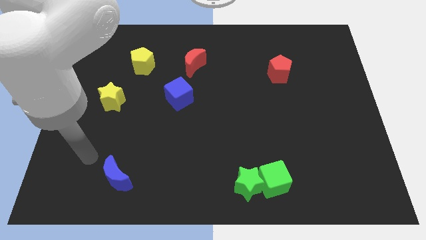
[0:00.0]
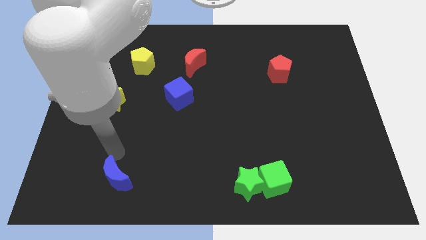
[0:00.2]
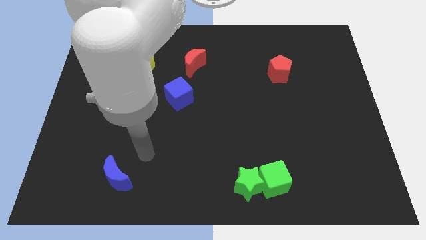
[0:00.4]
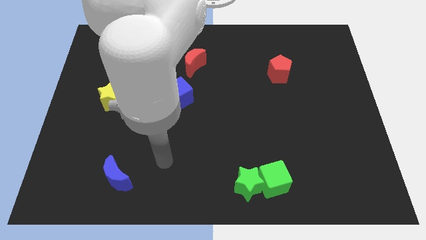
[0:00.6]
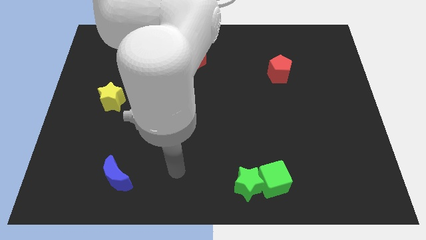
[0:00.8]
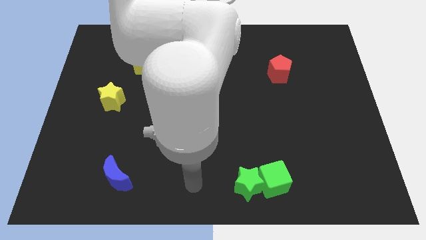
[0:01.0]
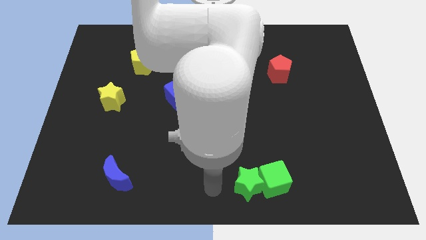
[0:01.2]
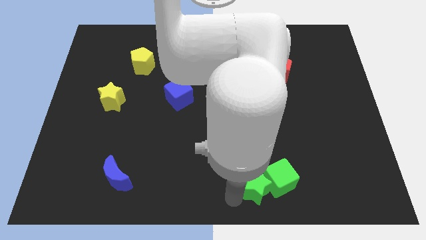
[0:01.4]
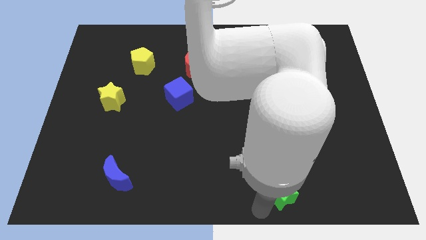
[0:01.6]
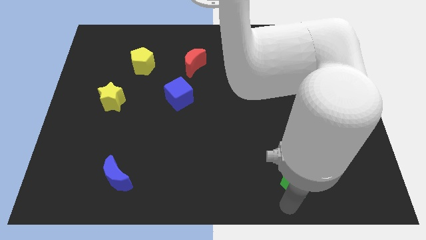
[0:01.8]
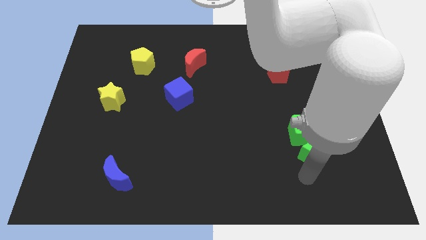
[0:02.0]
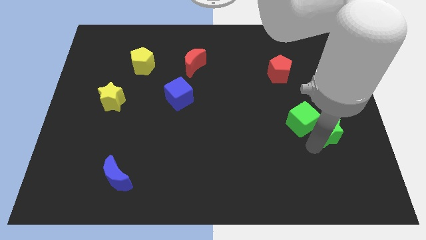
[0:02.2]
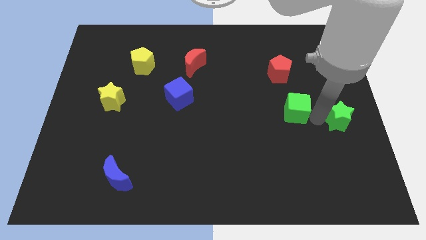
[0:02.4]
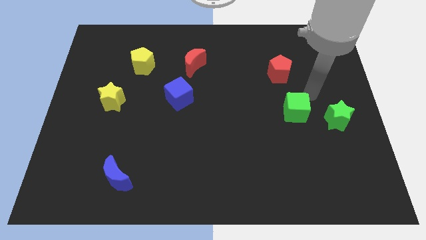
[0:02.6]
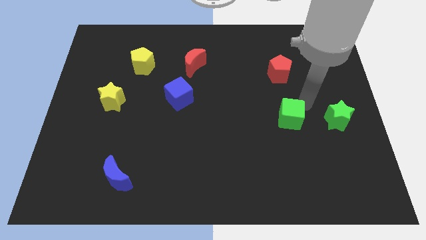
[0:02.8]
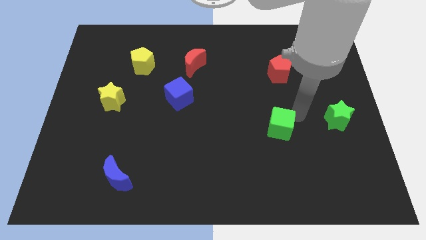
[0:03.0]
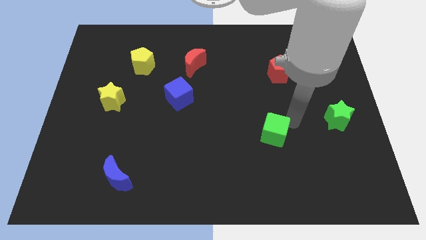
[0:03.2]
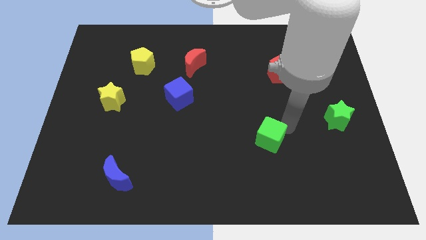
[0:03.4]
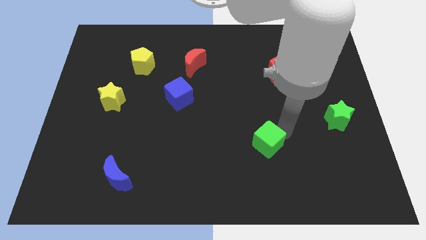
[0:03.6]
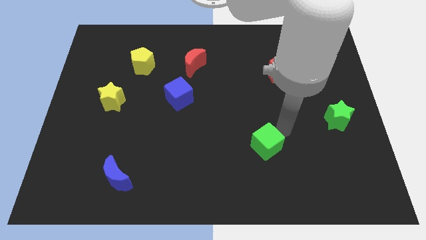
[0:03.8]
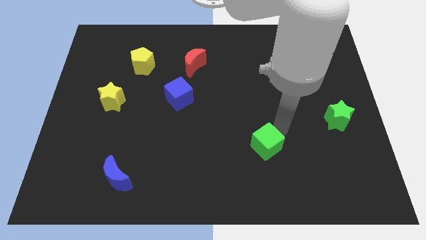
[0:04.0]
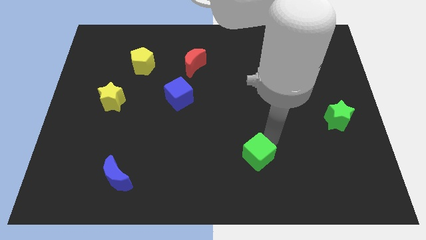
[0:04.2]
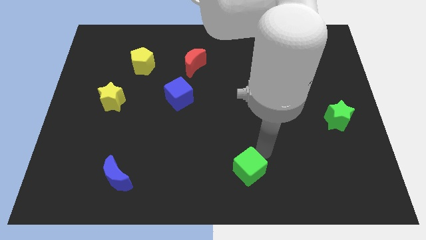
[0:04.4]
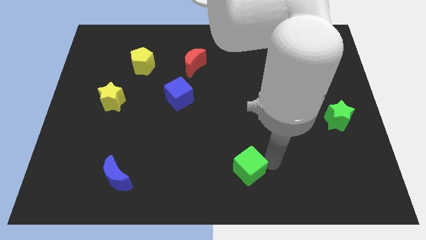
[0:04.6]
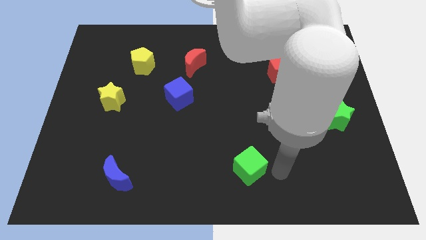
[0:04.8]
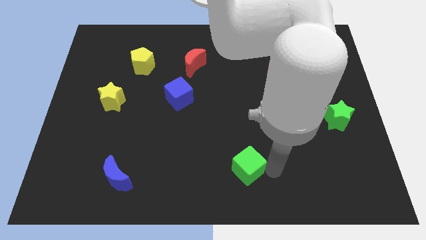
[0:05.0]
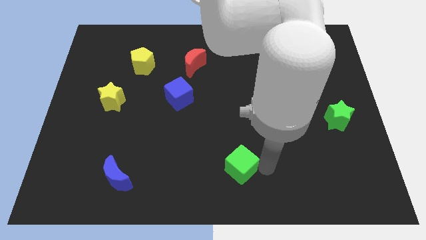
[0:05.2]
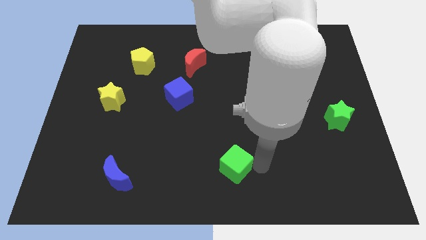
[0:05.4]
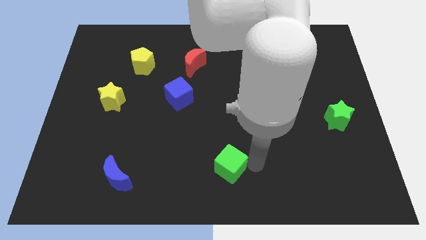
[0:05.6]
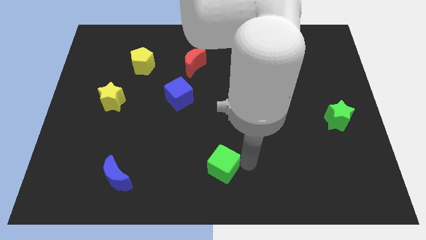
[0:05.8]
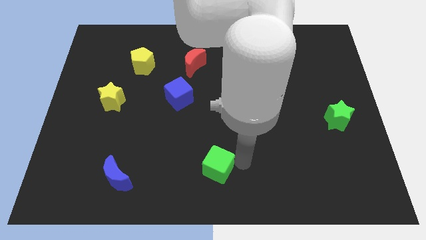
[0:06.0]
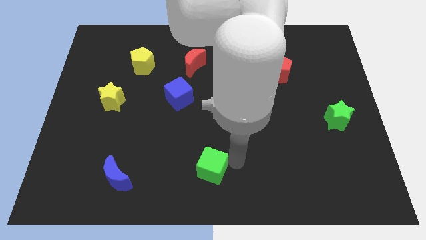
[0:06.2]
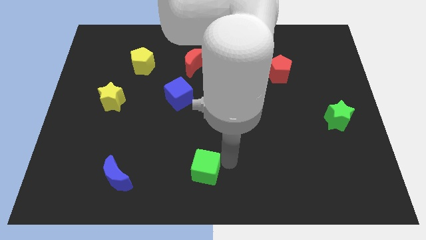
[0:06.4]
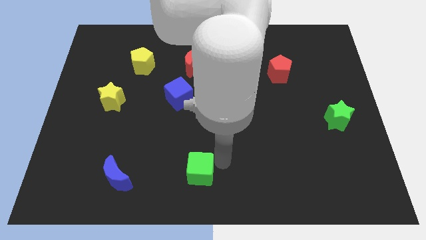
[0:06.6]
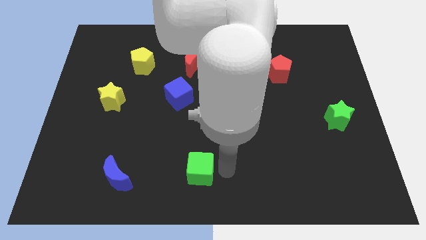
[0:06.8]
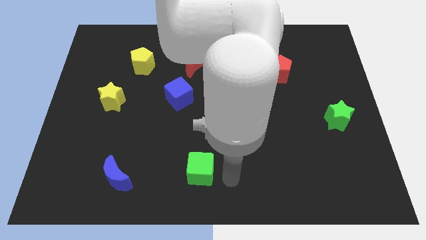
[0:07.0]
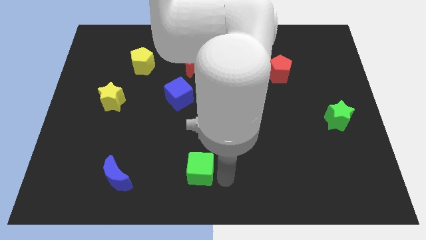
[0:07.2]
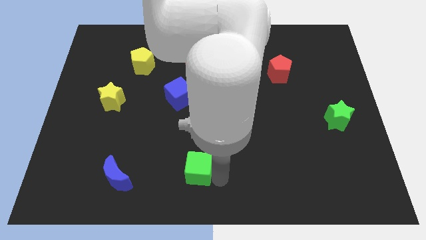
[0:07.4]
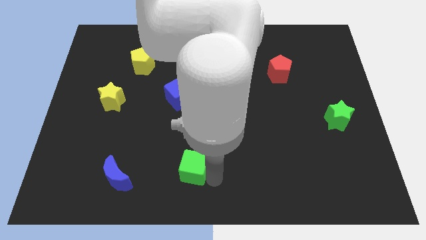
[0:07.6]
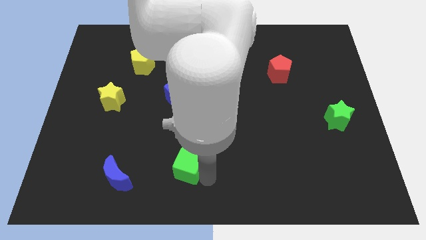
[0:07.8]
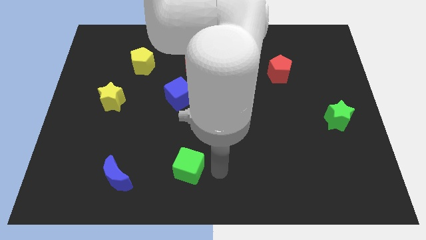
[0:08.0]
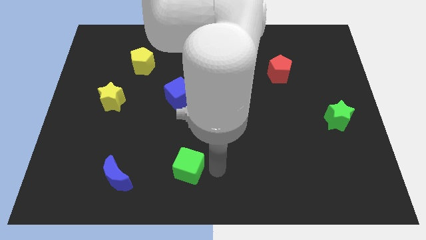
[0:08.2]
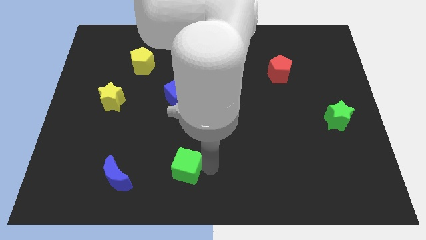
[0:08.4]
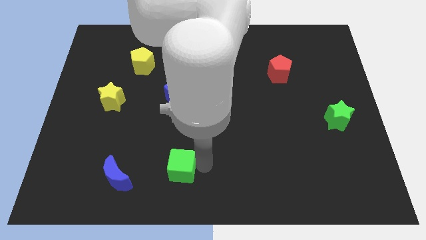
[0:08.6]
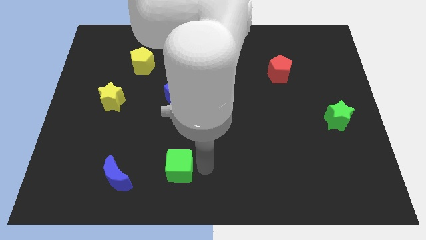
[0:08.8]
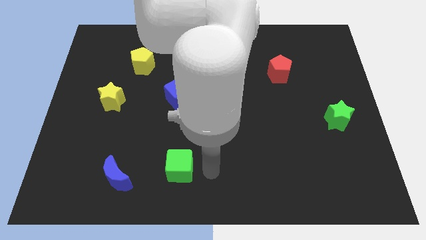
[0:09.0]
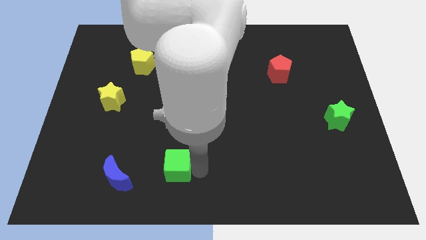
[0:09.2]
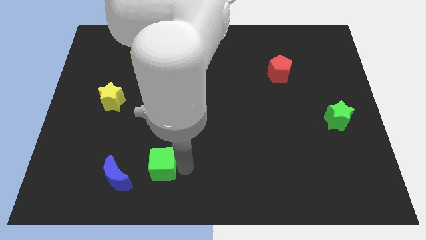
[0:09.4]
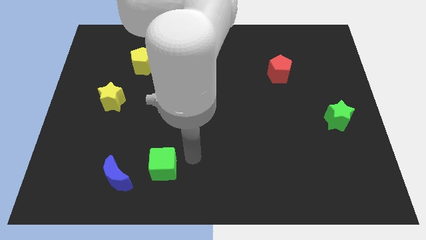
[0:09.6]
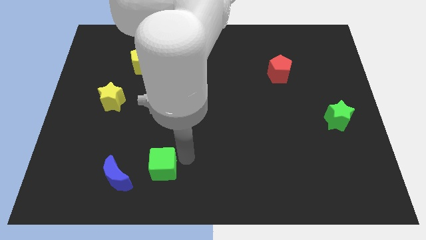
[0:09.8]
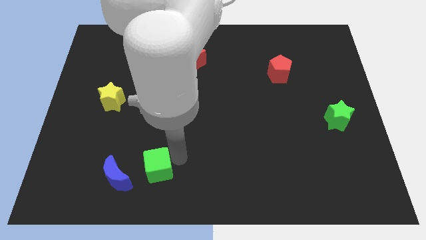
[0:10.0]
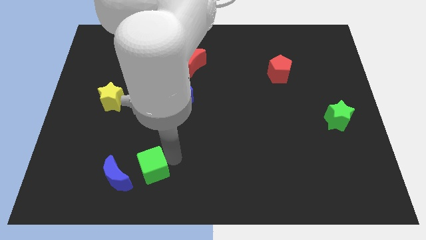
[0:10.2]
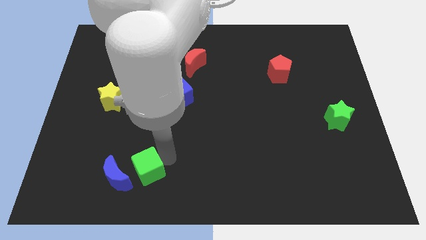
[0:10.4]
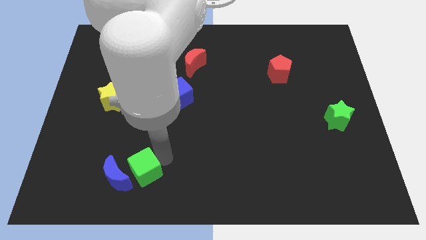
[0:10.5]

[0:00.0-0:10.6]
slide the green cube towards the blue moon

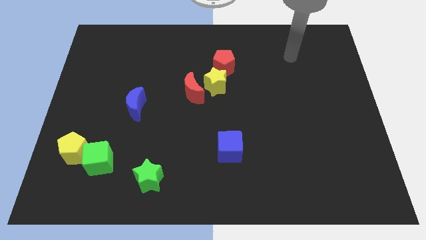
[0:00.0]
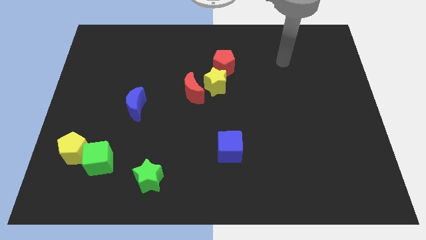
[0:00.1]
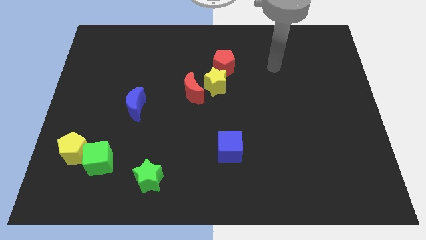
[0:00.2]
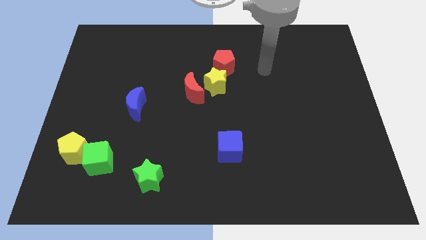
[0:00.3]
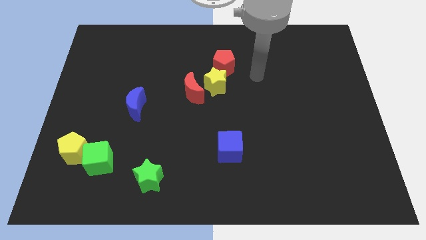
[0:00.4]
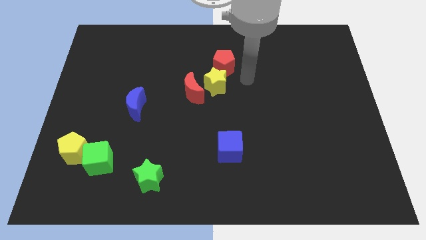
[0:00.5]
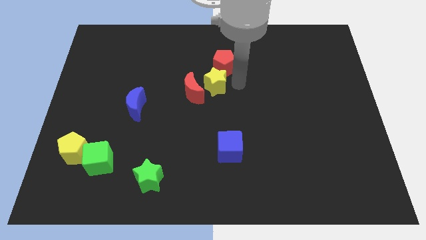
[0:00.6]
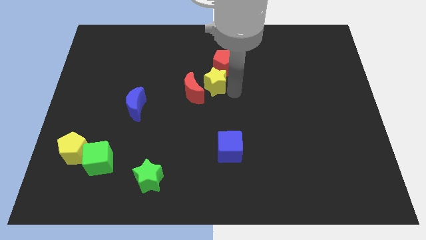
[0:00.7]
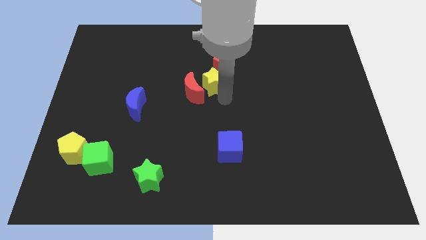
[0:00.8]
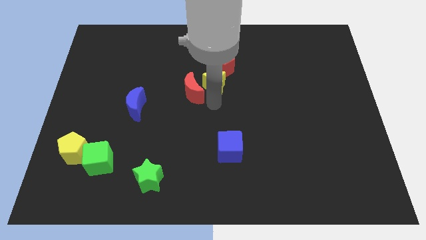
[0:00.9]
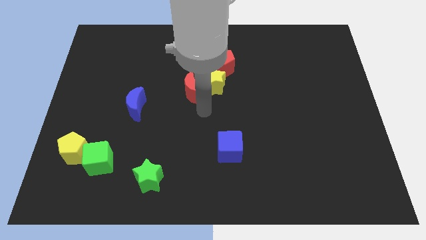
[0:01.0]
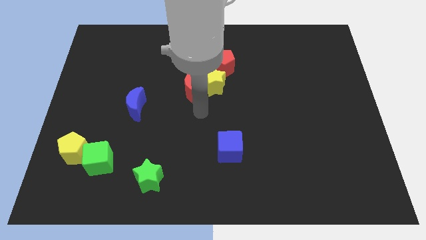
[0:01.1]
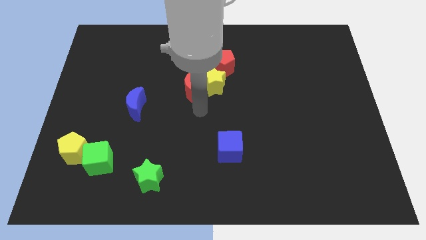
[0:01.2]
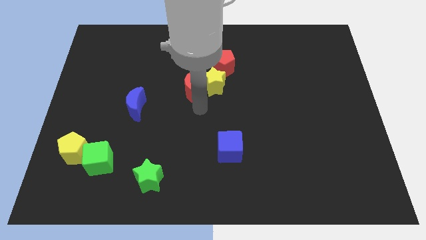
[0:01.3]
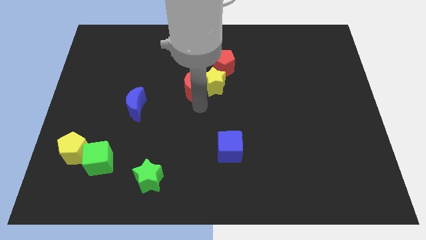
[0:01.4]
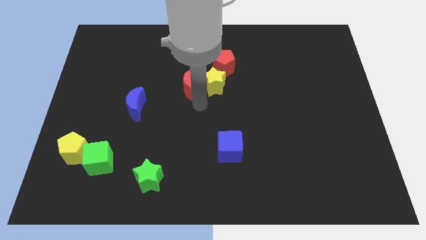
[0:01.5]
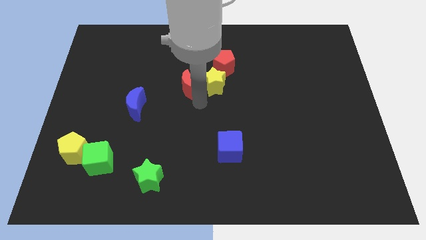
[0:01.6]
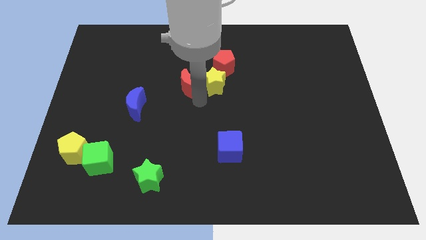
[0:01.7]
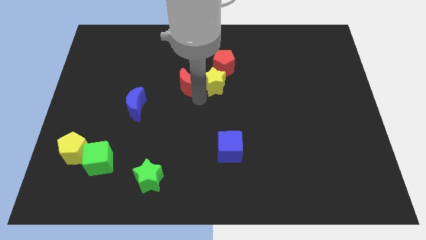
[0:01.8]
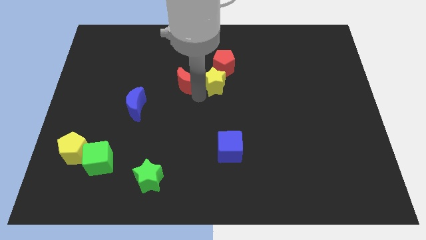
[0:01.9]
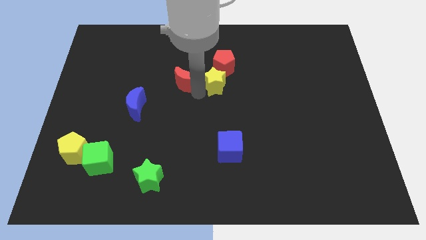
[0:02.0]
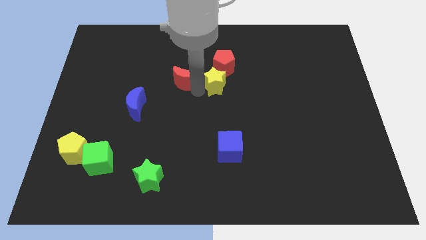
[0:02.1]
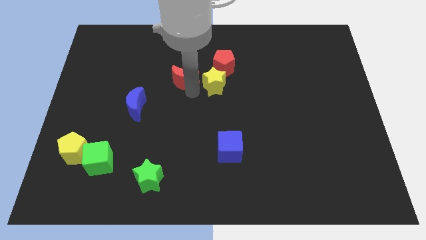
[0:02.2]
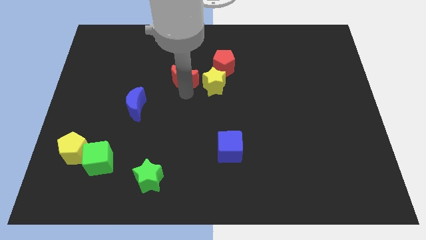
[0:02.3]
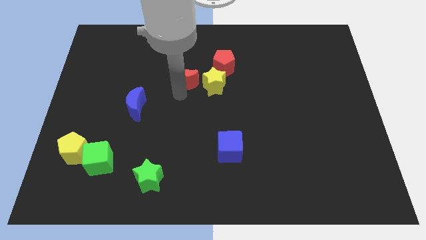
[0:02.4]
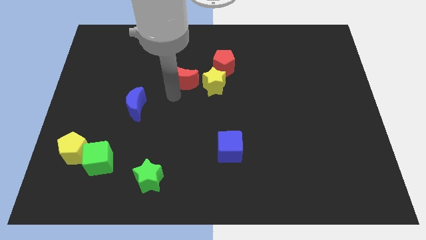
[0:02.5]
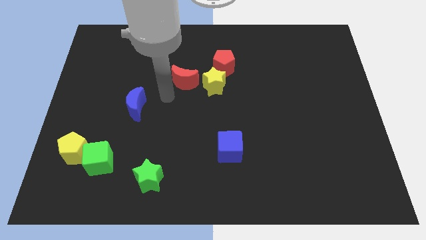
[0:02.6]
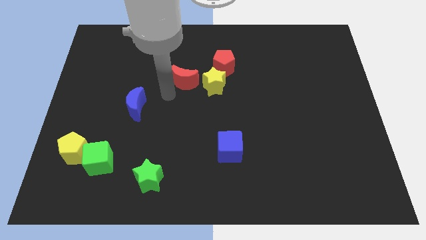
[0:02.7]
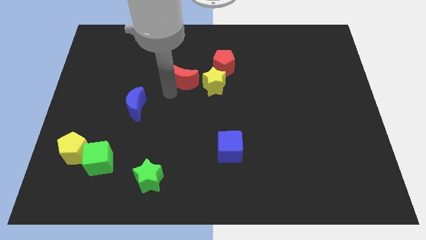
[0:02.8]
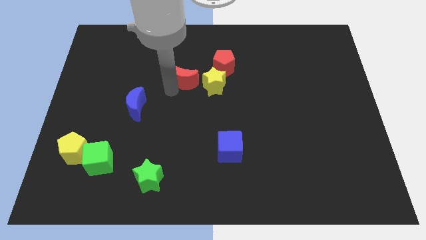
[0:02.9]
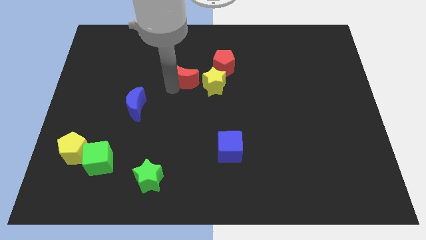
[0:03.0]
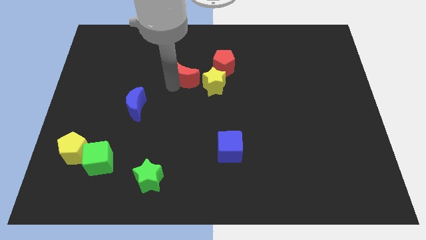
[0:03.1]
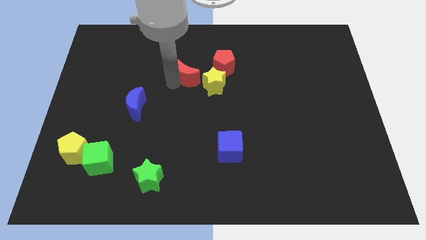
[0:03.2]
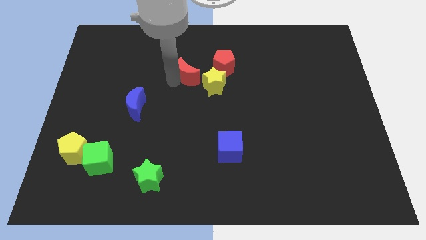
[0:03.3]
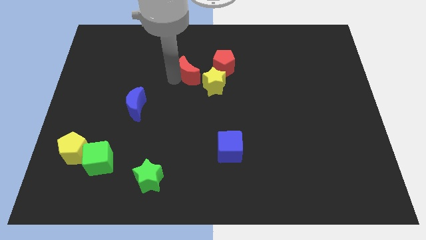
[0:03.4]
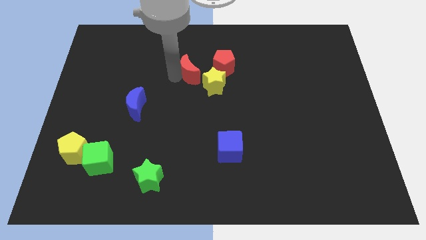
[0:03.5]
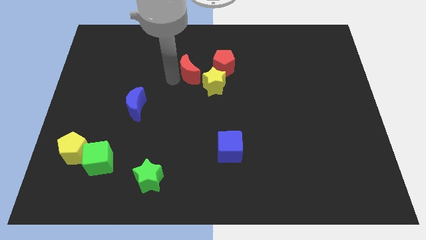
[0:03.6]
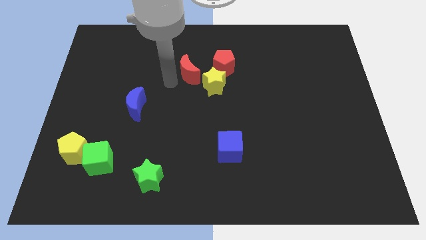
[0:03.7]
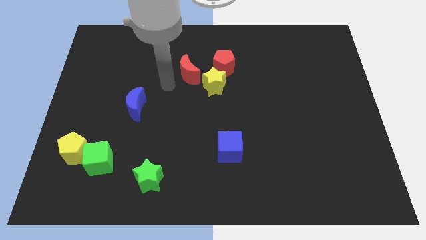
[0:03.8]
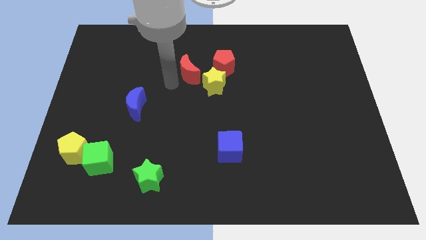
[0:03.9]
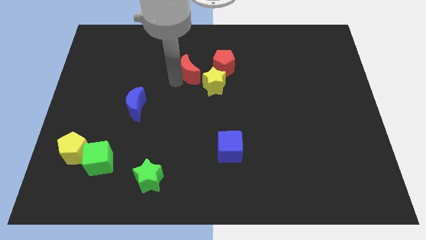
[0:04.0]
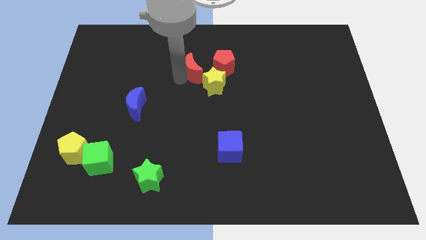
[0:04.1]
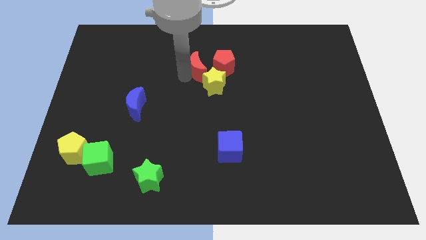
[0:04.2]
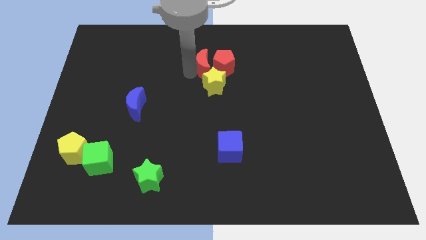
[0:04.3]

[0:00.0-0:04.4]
move the red moon towards the red pentagon
